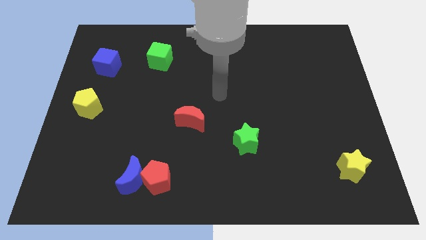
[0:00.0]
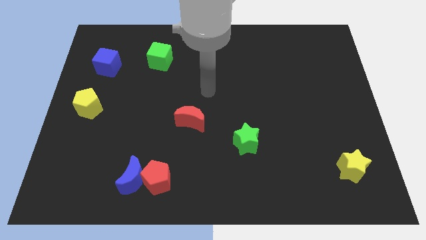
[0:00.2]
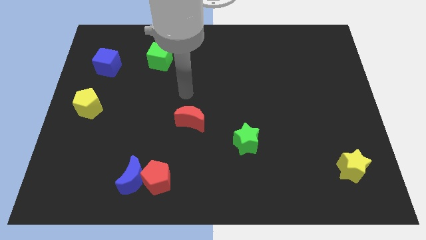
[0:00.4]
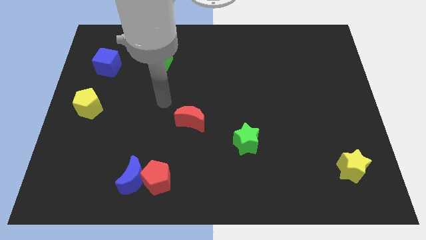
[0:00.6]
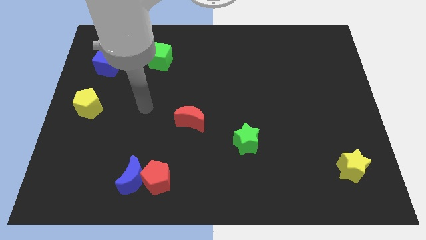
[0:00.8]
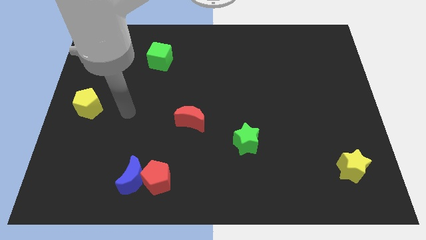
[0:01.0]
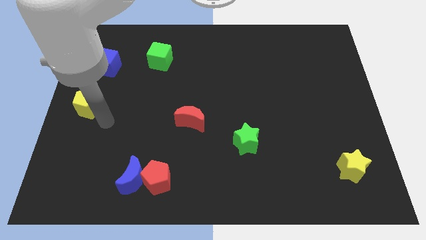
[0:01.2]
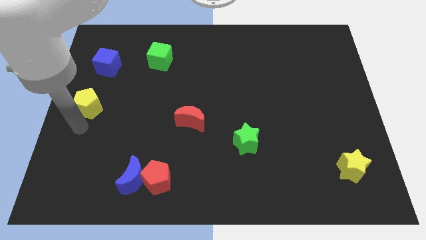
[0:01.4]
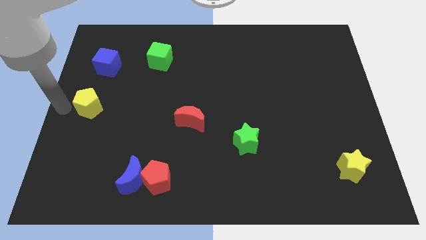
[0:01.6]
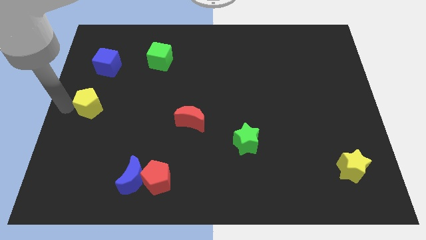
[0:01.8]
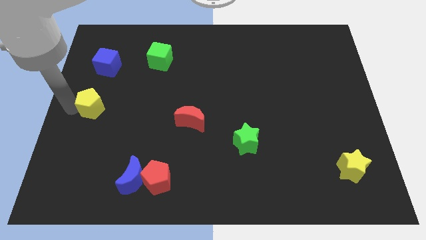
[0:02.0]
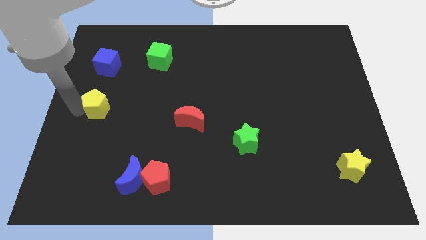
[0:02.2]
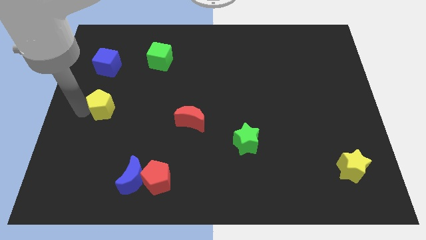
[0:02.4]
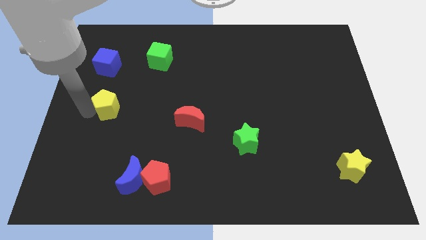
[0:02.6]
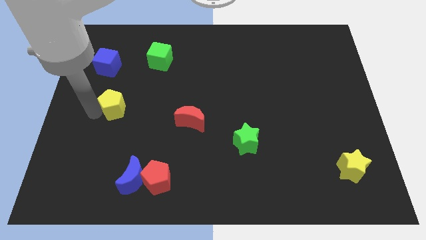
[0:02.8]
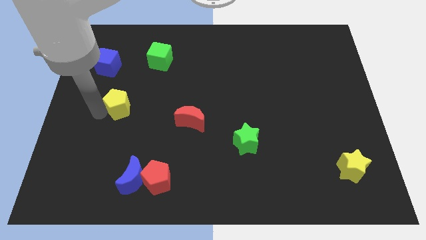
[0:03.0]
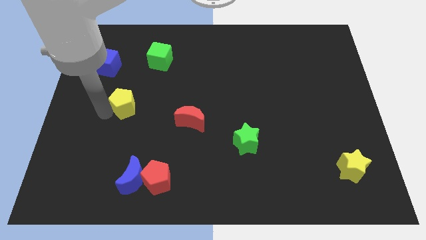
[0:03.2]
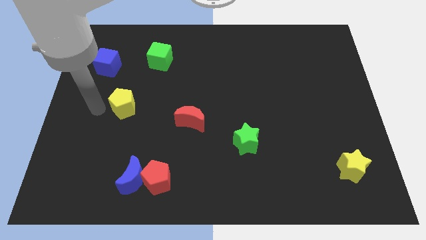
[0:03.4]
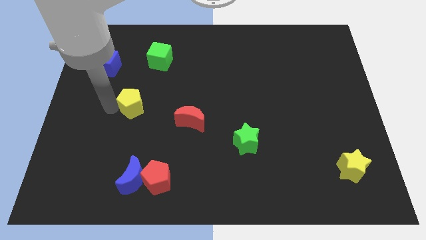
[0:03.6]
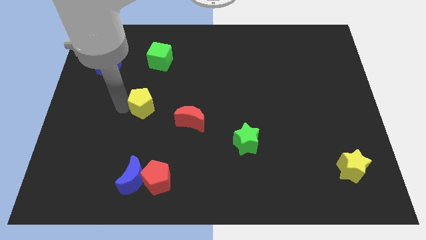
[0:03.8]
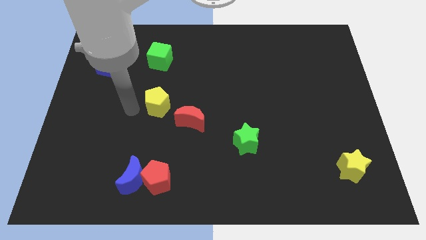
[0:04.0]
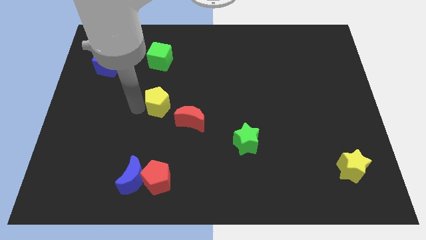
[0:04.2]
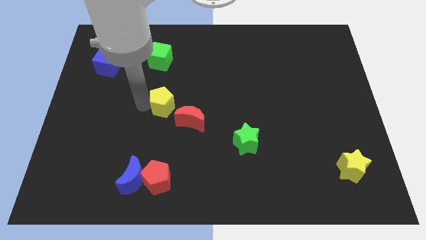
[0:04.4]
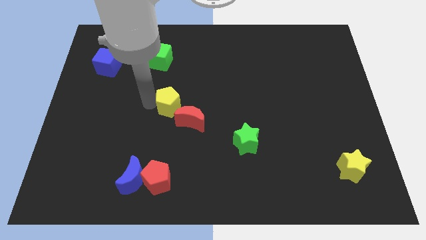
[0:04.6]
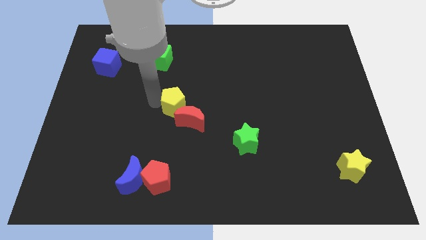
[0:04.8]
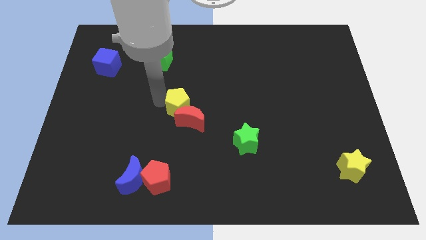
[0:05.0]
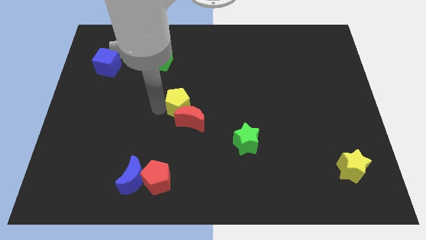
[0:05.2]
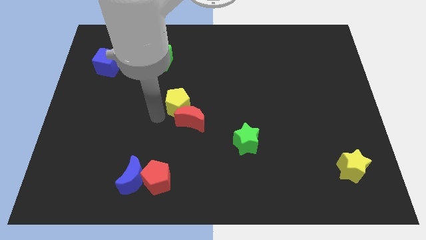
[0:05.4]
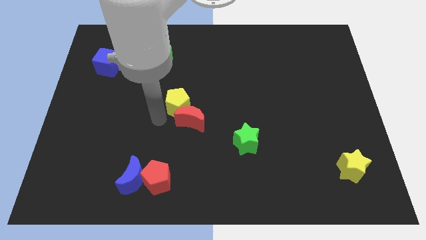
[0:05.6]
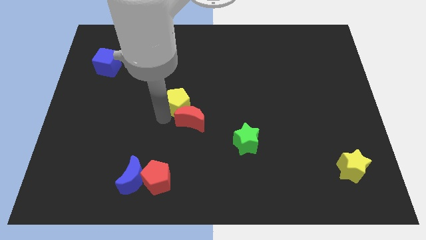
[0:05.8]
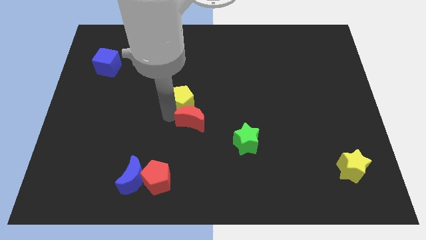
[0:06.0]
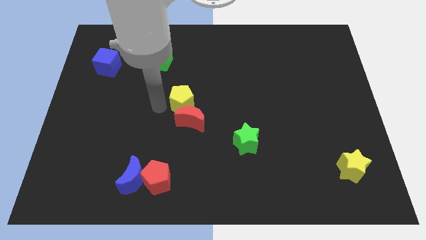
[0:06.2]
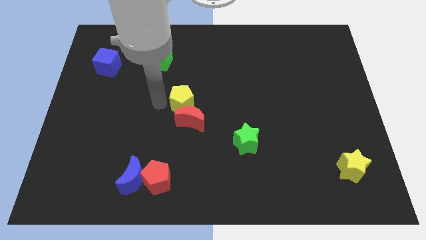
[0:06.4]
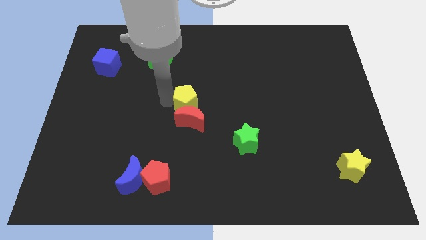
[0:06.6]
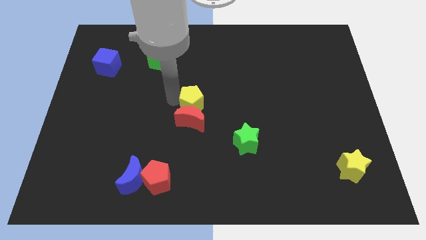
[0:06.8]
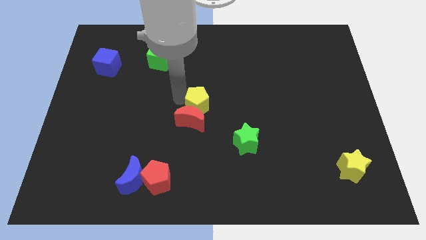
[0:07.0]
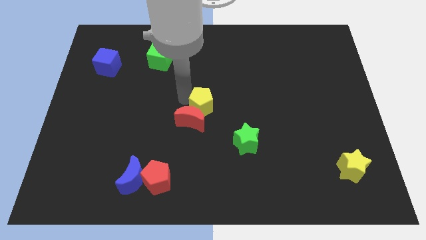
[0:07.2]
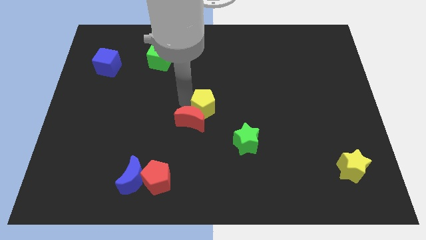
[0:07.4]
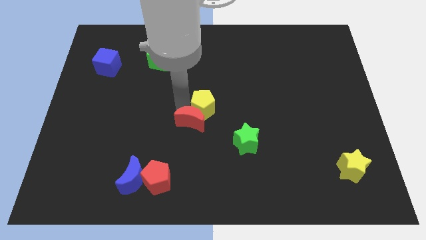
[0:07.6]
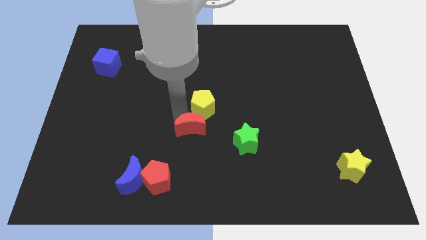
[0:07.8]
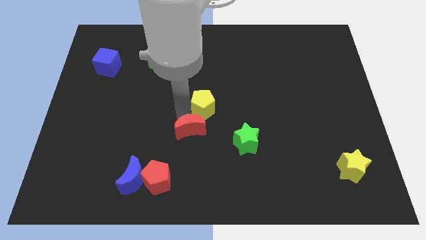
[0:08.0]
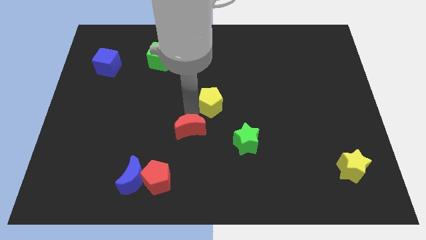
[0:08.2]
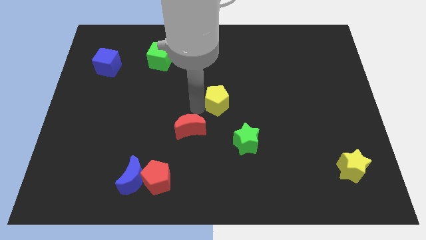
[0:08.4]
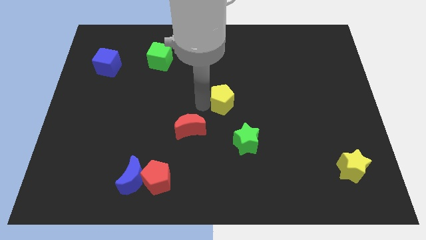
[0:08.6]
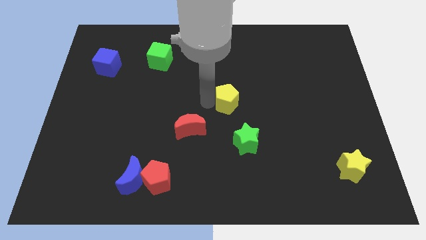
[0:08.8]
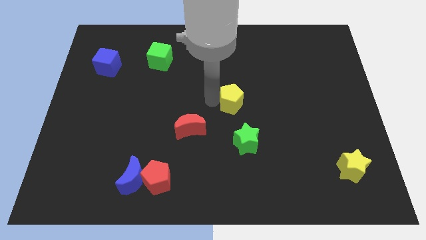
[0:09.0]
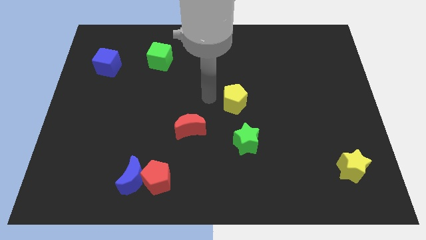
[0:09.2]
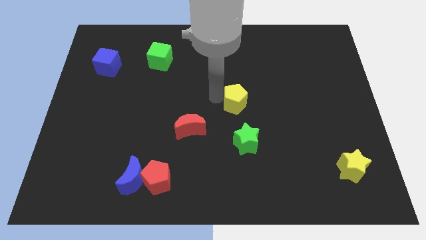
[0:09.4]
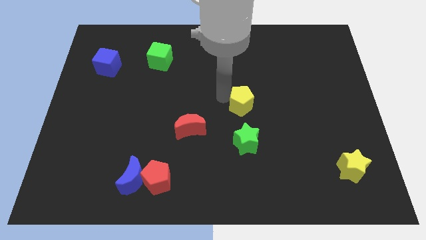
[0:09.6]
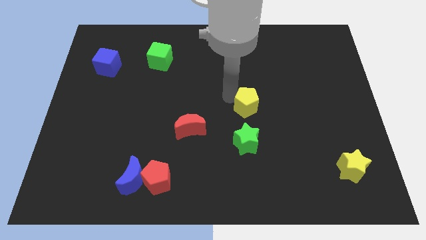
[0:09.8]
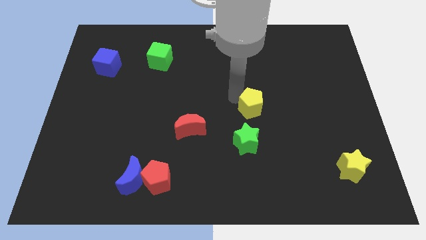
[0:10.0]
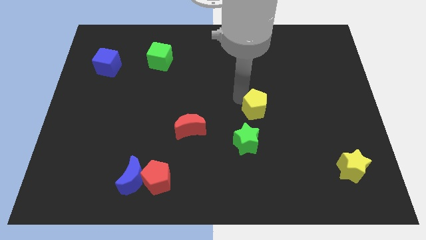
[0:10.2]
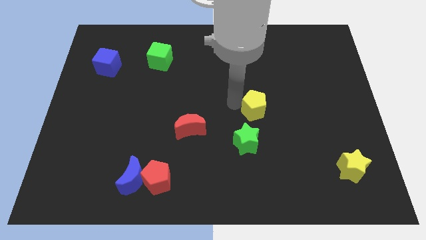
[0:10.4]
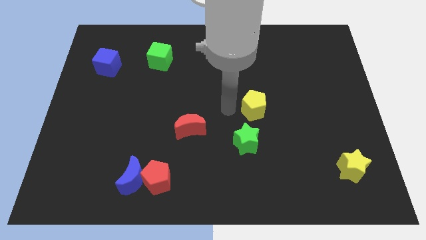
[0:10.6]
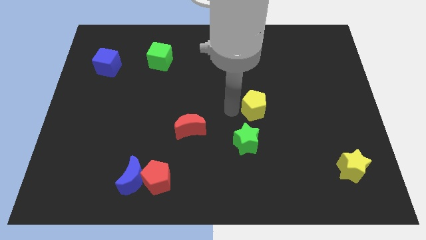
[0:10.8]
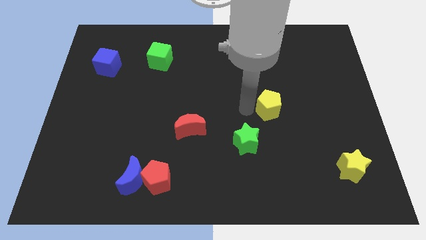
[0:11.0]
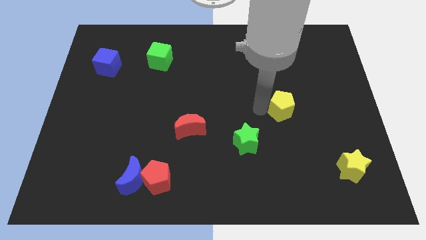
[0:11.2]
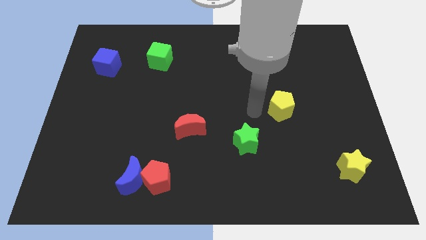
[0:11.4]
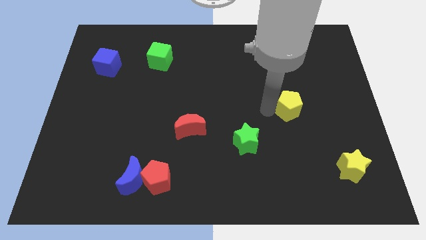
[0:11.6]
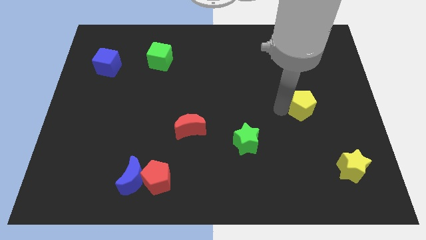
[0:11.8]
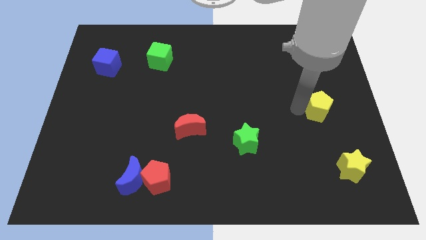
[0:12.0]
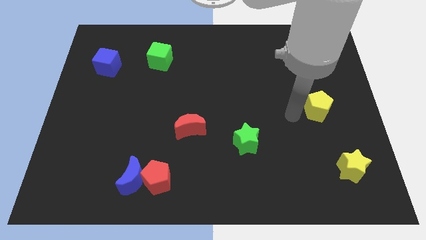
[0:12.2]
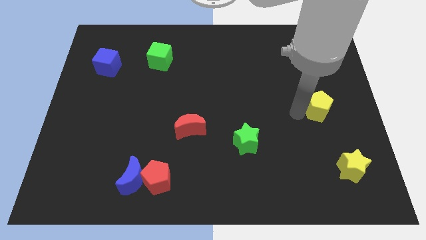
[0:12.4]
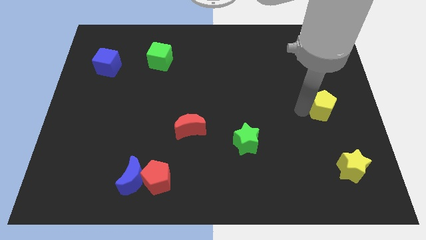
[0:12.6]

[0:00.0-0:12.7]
move the yellow pentagon to the right side of the board

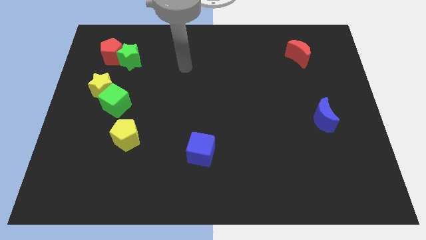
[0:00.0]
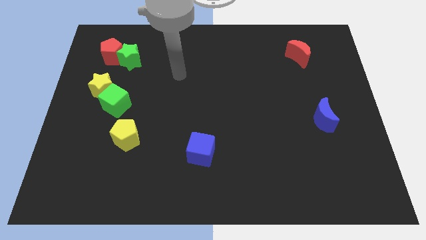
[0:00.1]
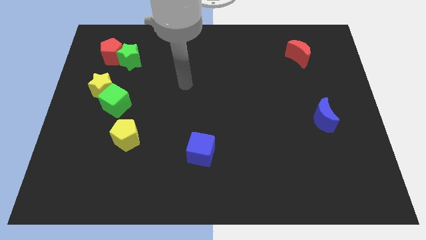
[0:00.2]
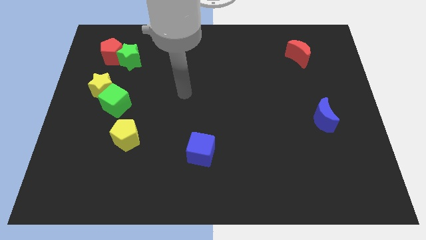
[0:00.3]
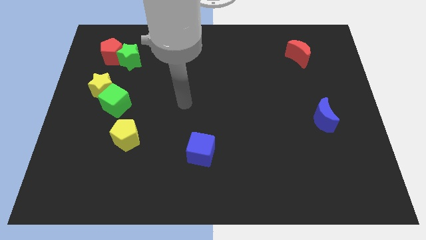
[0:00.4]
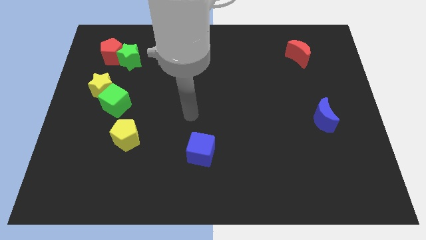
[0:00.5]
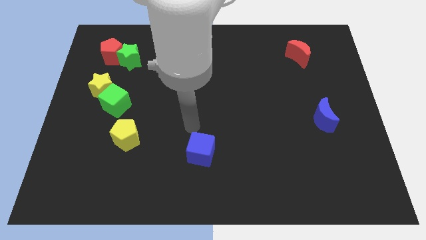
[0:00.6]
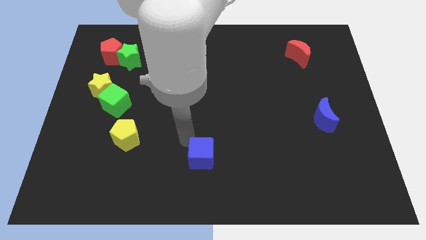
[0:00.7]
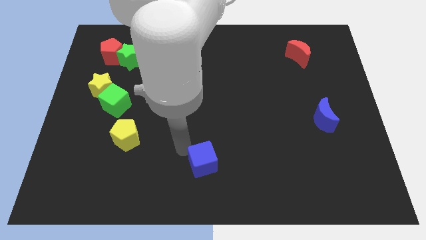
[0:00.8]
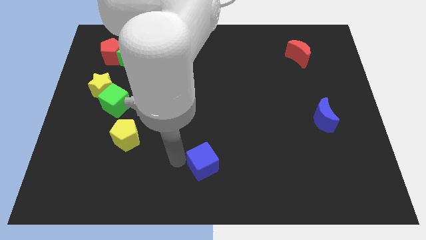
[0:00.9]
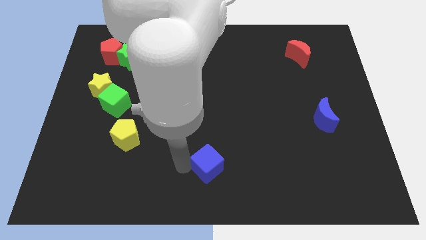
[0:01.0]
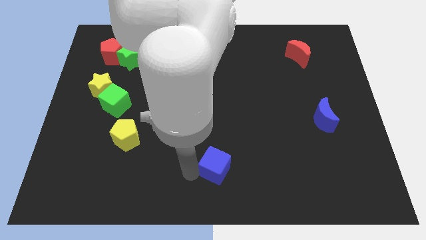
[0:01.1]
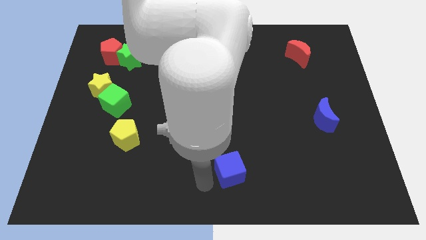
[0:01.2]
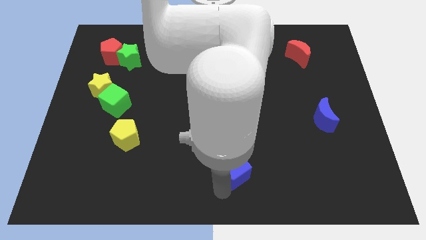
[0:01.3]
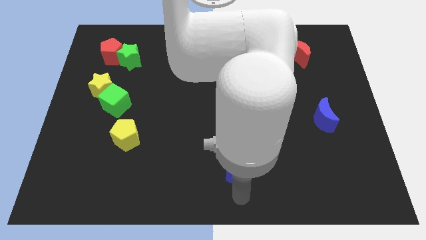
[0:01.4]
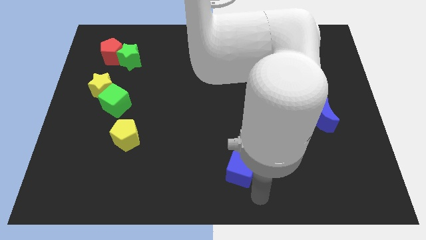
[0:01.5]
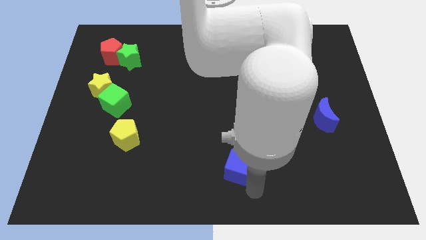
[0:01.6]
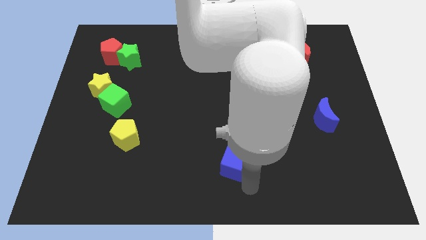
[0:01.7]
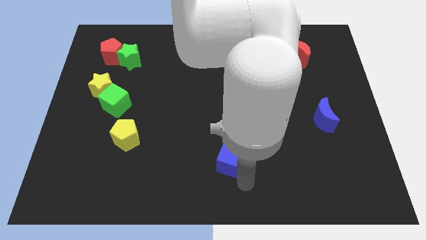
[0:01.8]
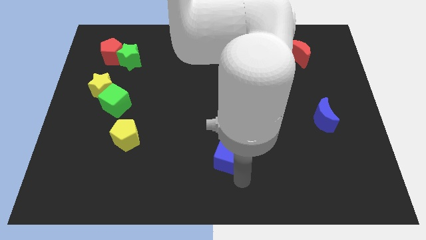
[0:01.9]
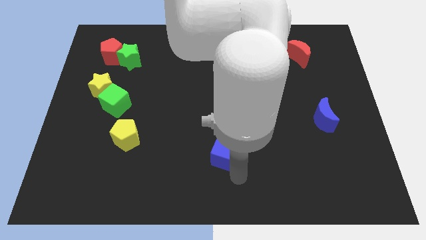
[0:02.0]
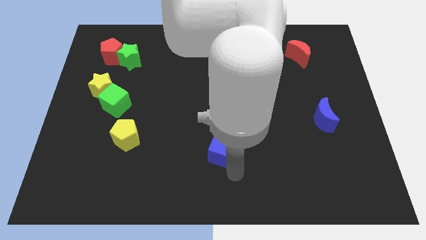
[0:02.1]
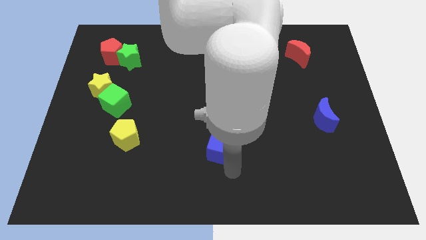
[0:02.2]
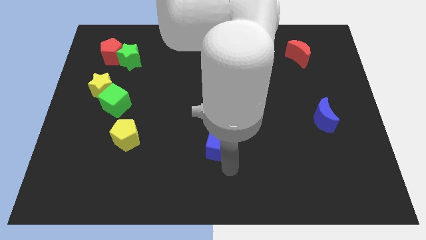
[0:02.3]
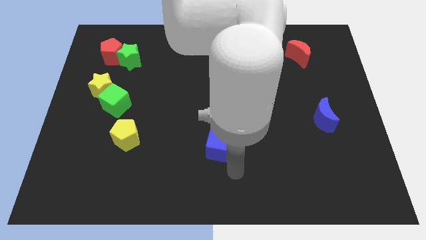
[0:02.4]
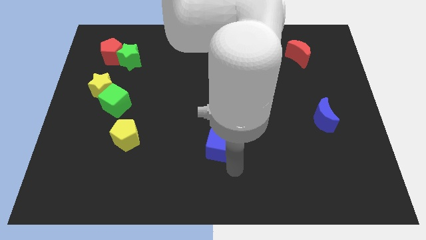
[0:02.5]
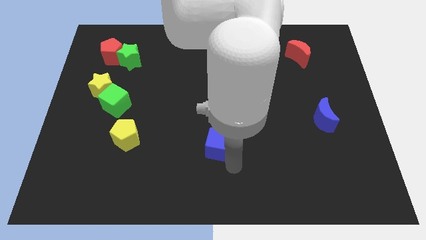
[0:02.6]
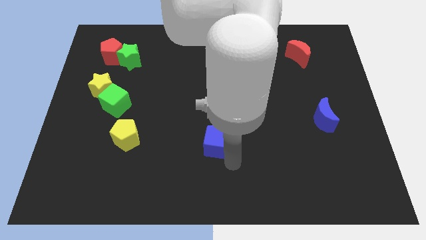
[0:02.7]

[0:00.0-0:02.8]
push the blue cube to the middle of the board
